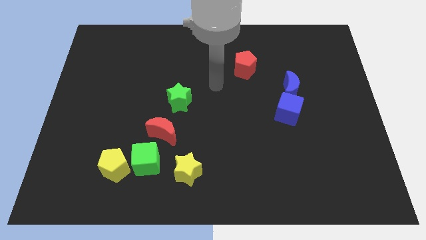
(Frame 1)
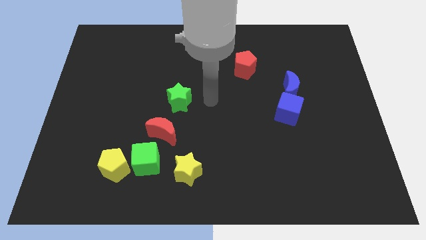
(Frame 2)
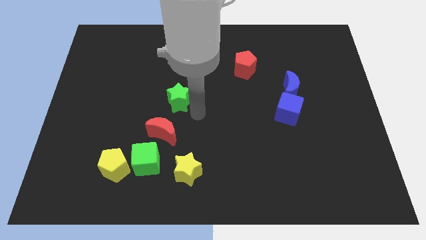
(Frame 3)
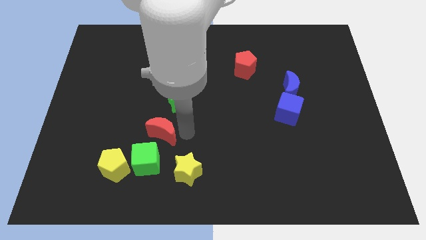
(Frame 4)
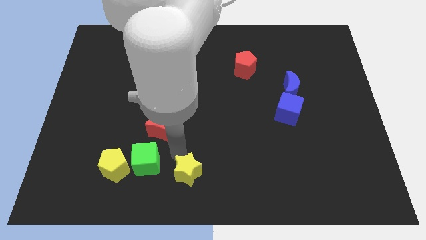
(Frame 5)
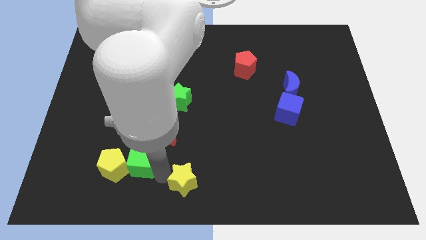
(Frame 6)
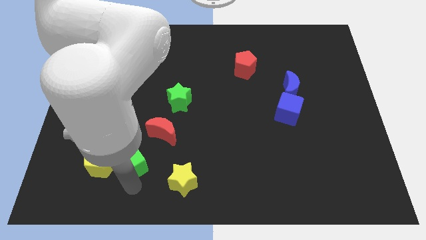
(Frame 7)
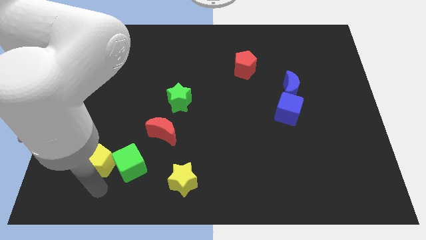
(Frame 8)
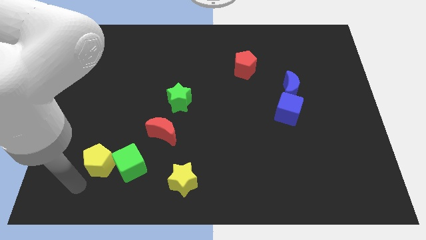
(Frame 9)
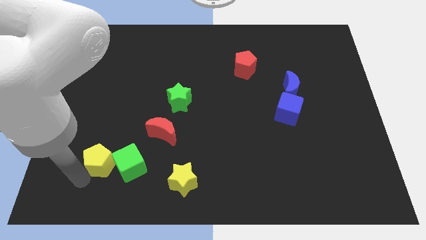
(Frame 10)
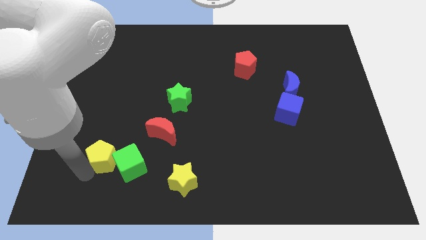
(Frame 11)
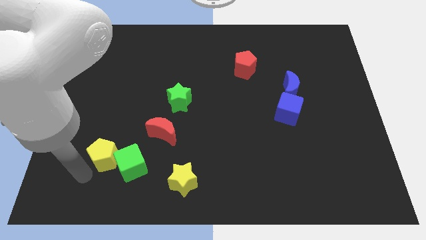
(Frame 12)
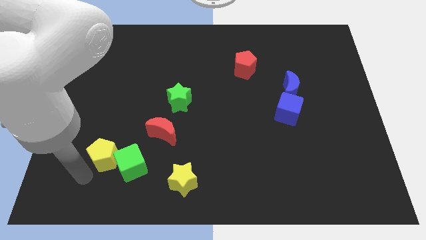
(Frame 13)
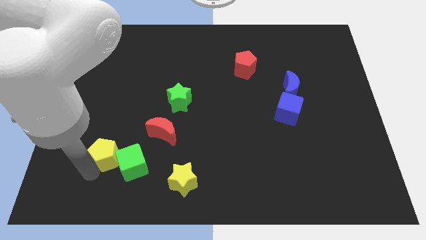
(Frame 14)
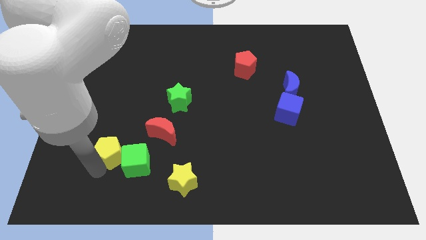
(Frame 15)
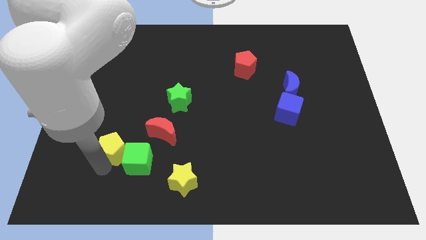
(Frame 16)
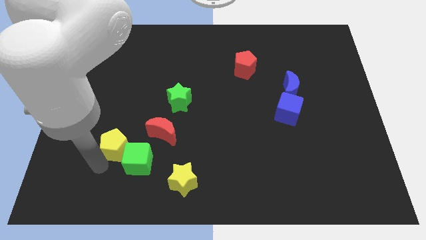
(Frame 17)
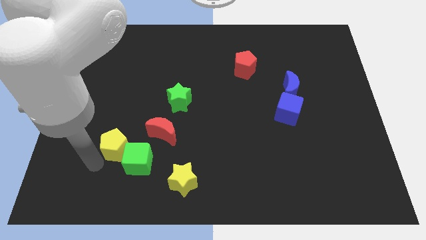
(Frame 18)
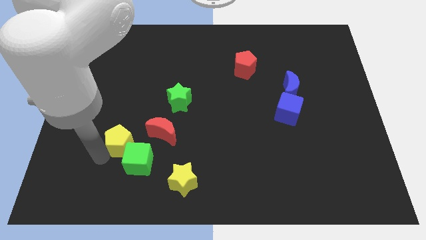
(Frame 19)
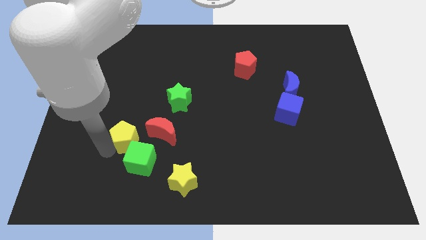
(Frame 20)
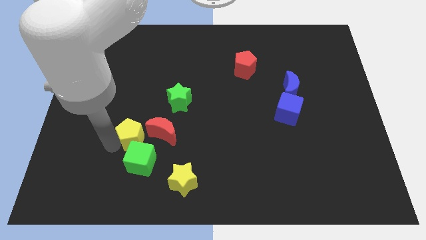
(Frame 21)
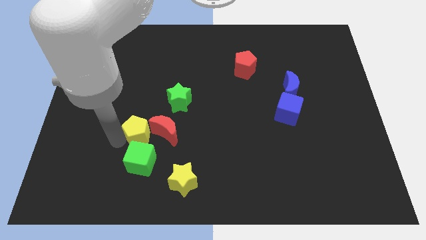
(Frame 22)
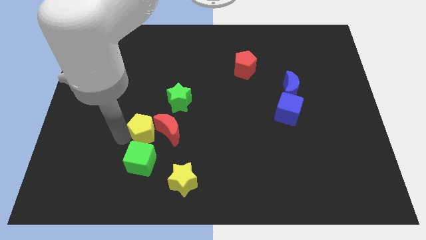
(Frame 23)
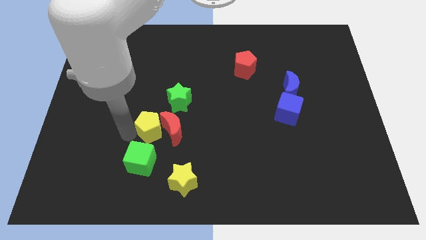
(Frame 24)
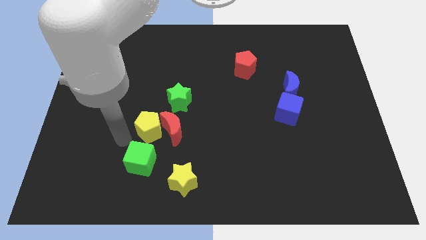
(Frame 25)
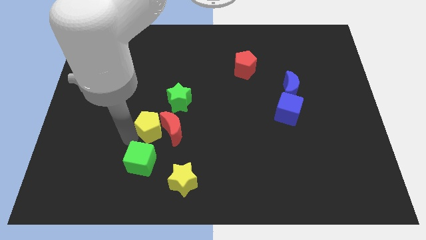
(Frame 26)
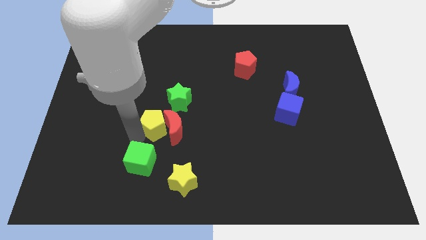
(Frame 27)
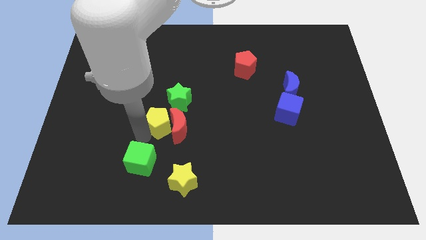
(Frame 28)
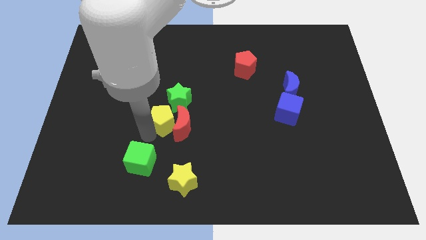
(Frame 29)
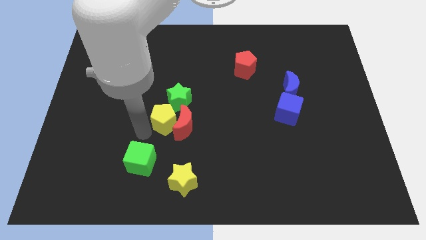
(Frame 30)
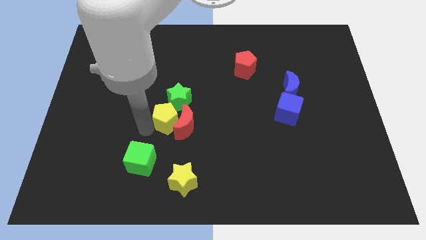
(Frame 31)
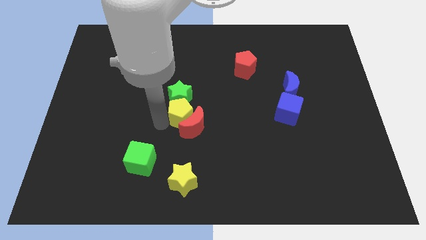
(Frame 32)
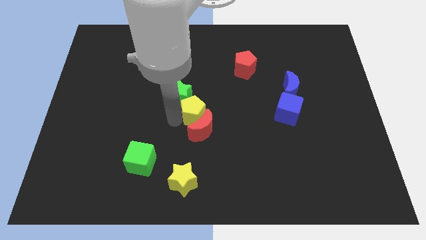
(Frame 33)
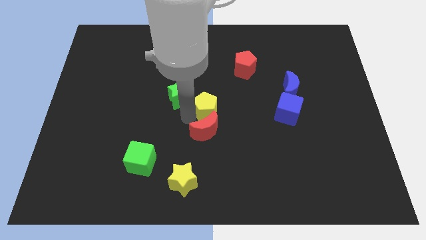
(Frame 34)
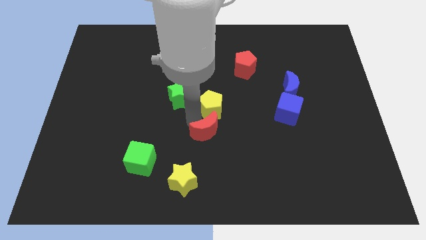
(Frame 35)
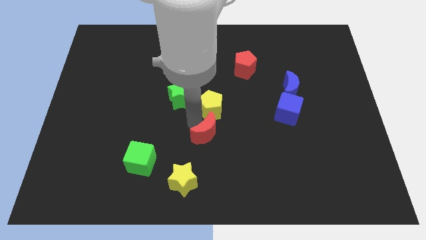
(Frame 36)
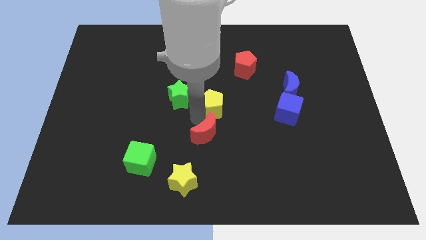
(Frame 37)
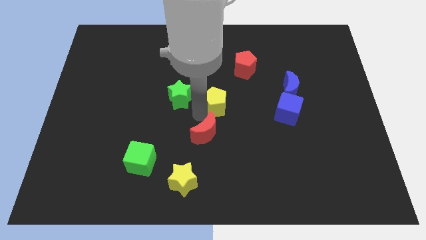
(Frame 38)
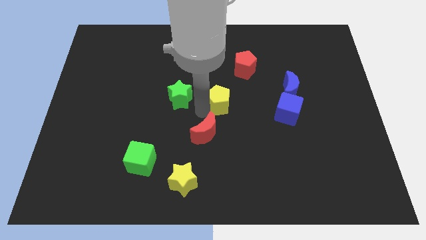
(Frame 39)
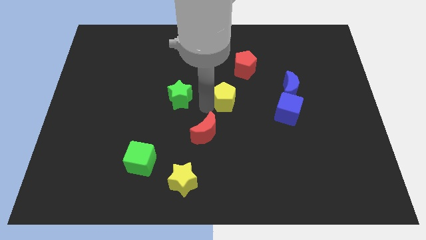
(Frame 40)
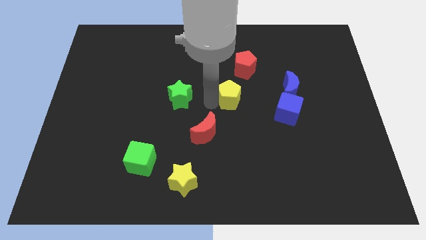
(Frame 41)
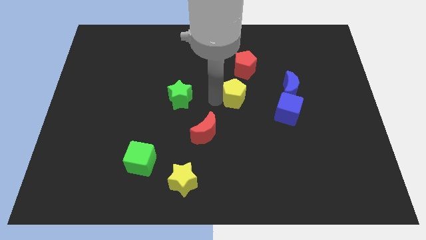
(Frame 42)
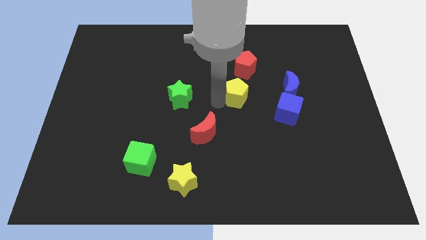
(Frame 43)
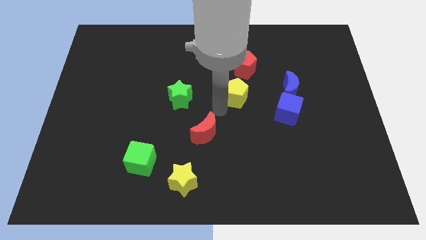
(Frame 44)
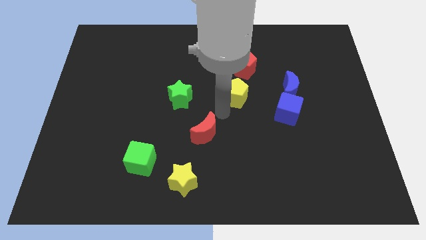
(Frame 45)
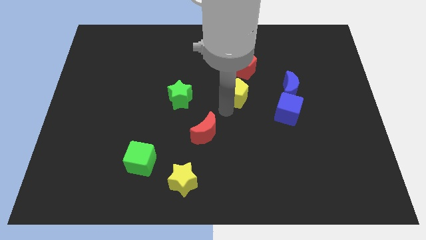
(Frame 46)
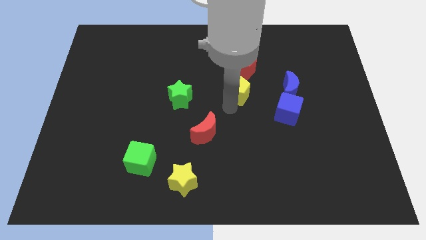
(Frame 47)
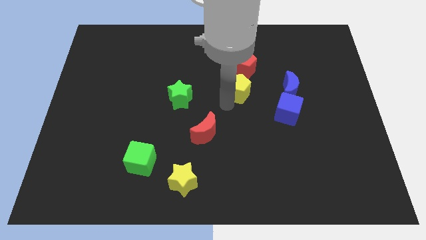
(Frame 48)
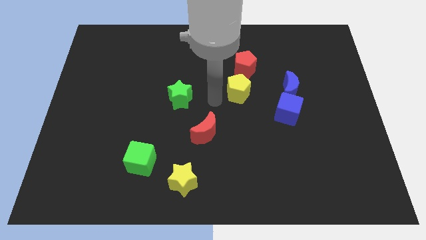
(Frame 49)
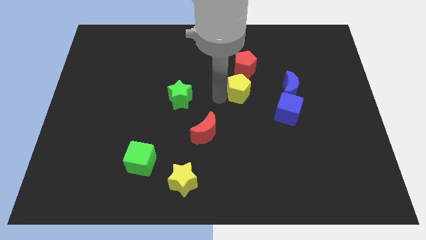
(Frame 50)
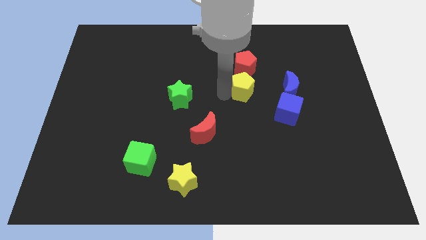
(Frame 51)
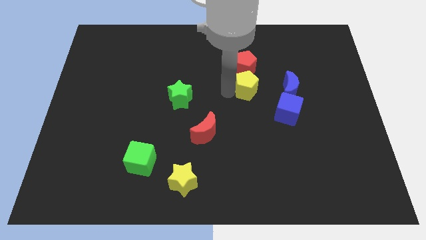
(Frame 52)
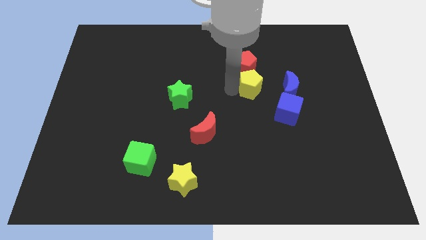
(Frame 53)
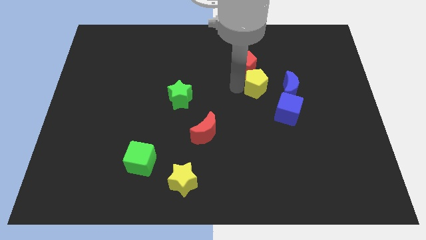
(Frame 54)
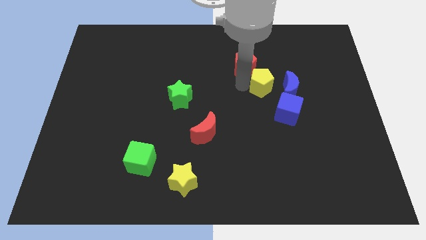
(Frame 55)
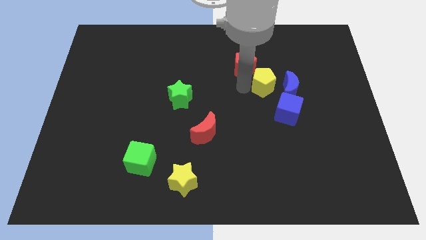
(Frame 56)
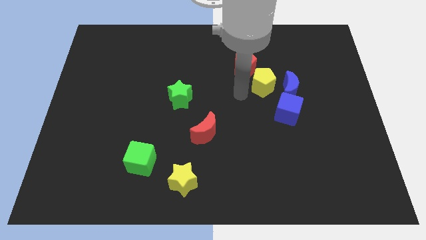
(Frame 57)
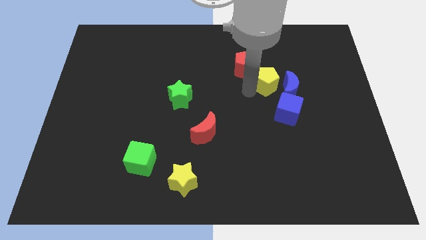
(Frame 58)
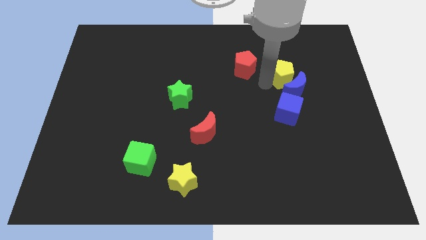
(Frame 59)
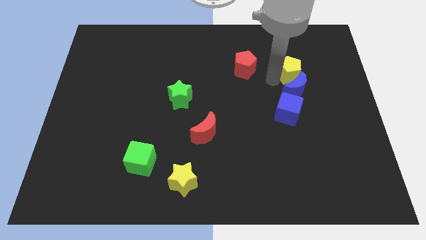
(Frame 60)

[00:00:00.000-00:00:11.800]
slide the yellow pentagon to the top right side of the blue moon
